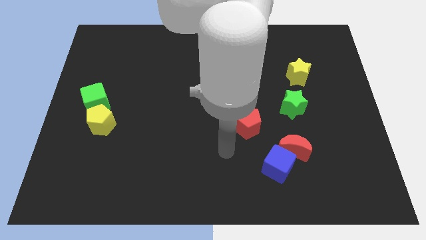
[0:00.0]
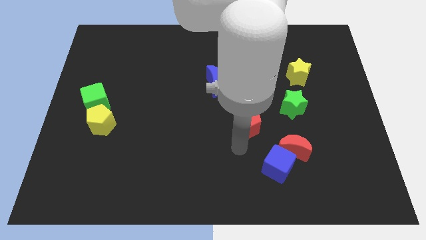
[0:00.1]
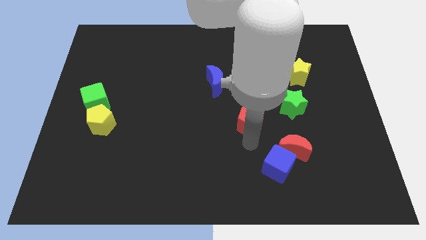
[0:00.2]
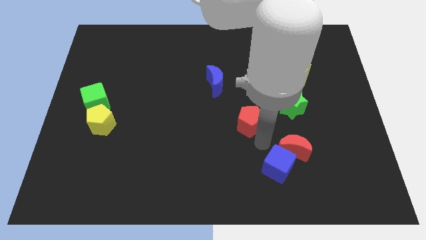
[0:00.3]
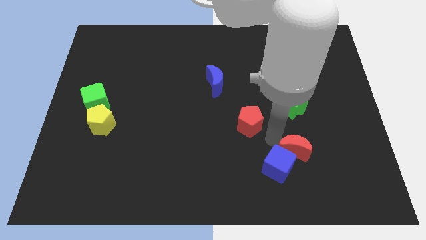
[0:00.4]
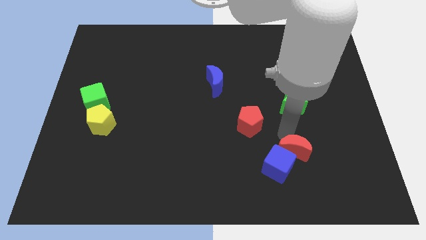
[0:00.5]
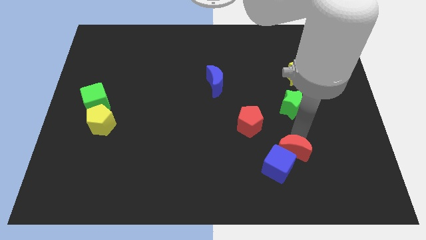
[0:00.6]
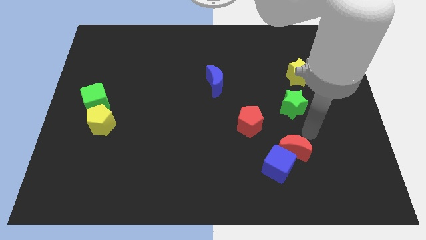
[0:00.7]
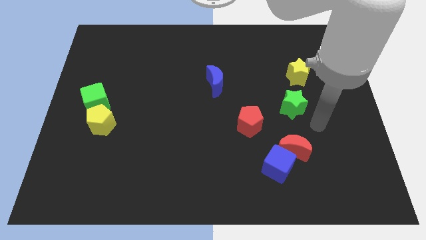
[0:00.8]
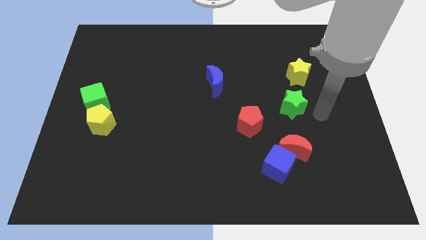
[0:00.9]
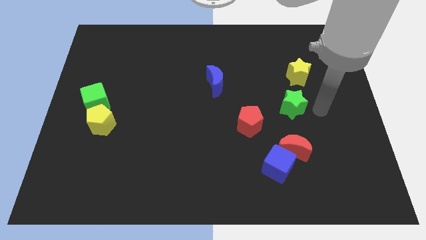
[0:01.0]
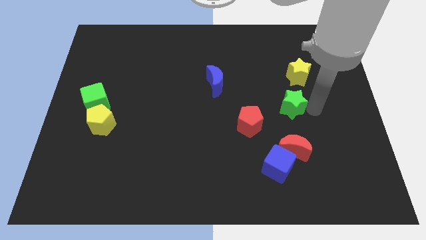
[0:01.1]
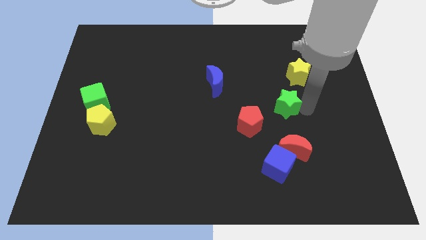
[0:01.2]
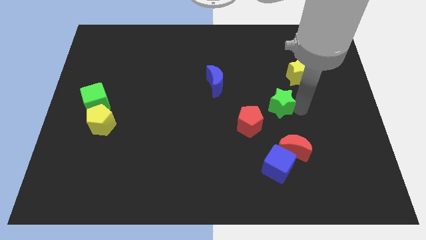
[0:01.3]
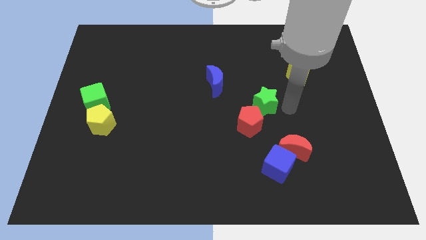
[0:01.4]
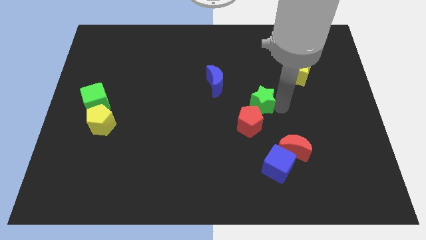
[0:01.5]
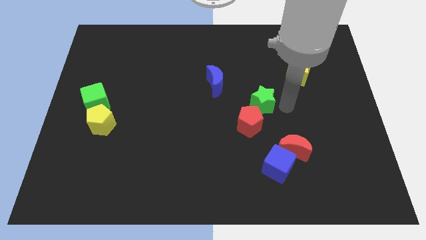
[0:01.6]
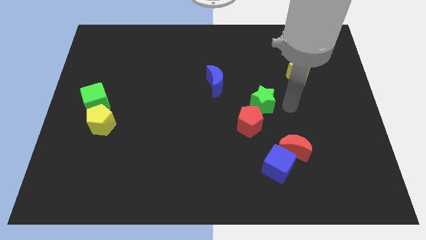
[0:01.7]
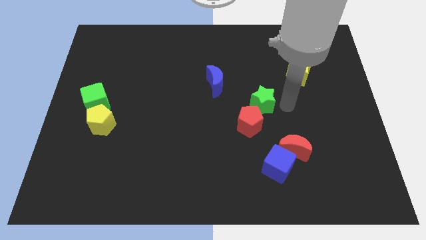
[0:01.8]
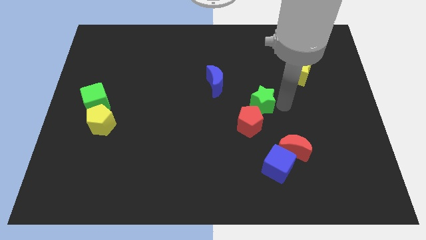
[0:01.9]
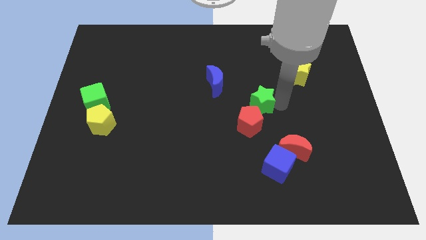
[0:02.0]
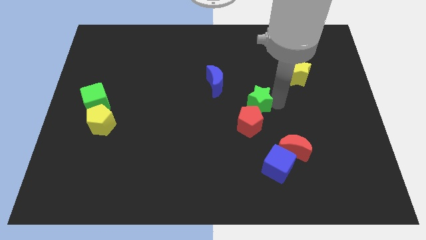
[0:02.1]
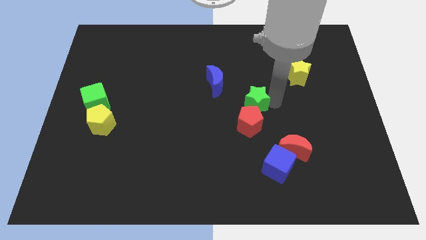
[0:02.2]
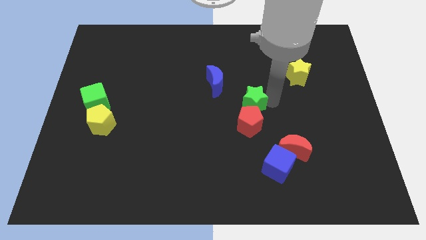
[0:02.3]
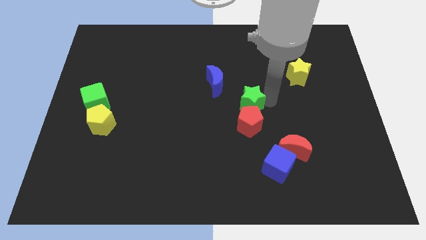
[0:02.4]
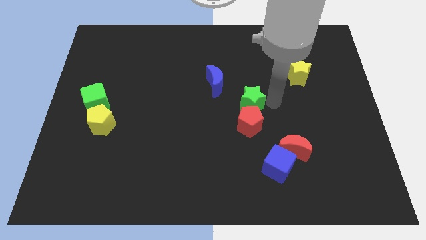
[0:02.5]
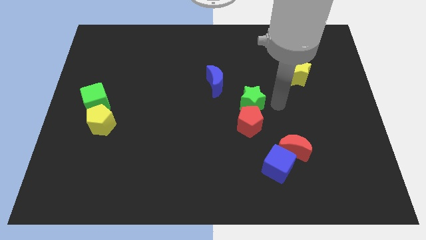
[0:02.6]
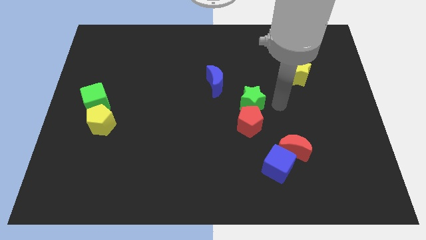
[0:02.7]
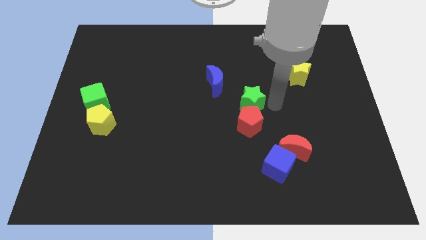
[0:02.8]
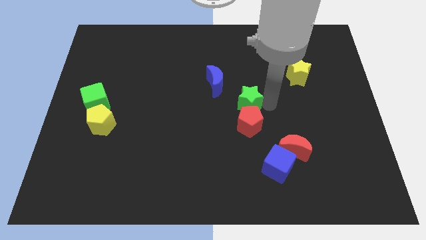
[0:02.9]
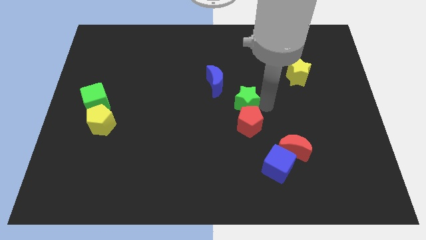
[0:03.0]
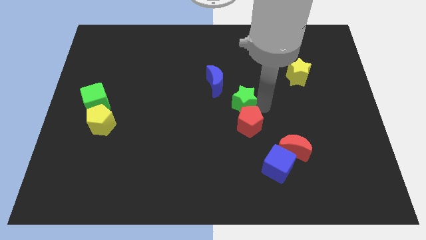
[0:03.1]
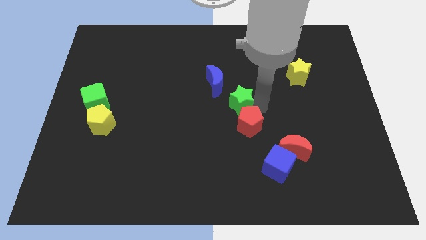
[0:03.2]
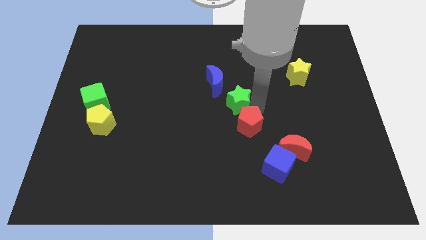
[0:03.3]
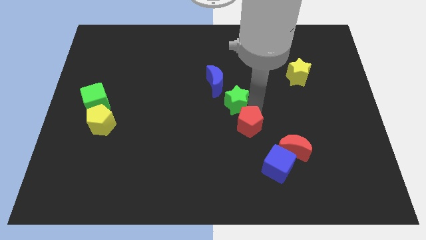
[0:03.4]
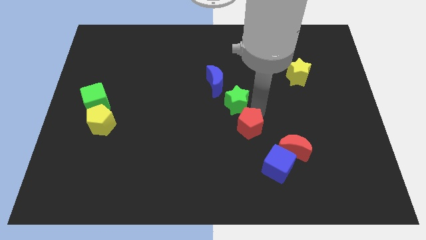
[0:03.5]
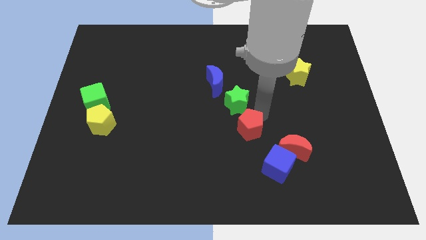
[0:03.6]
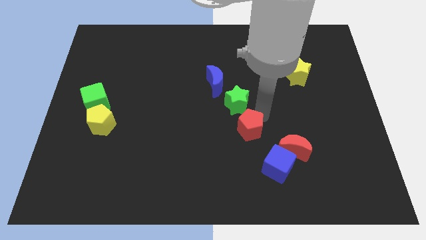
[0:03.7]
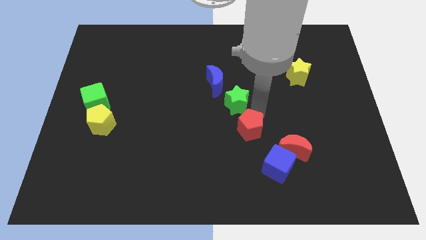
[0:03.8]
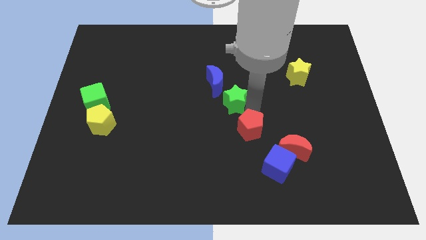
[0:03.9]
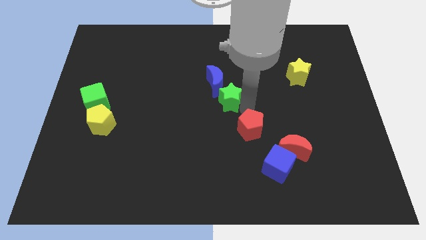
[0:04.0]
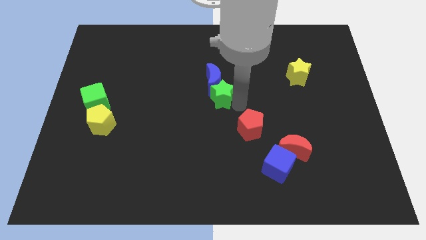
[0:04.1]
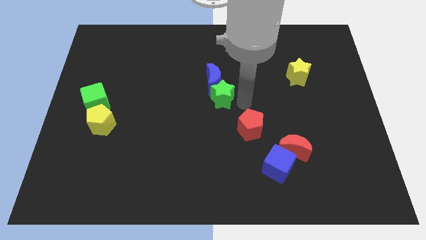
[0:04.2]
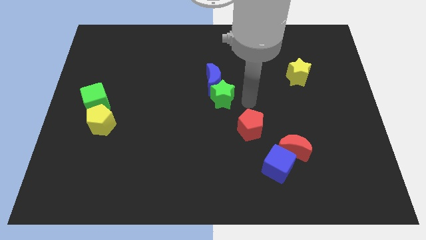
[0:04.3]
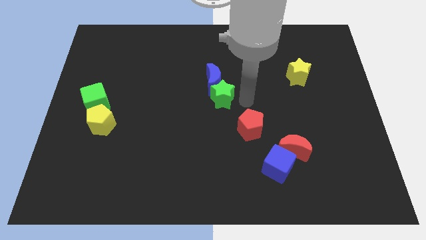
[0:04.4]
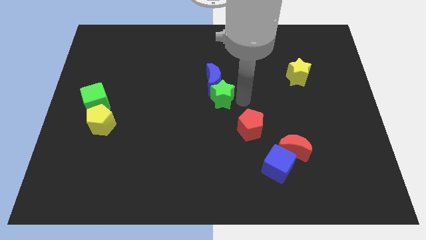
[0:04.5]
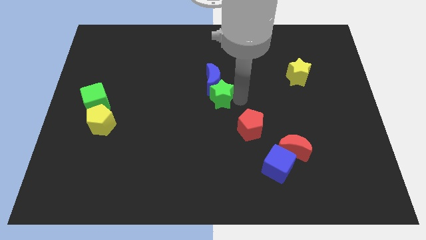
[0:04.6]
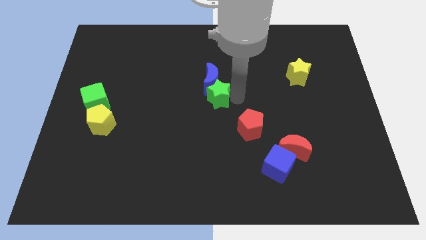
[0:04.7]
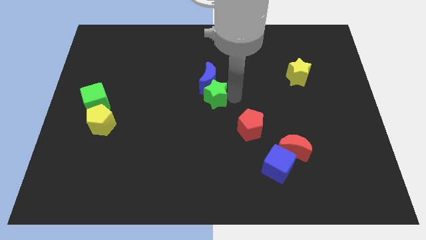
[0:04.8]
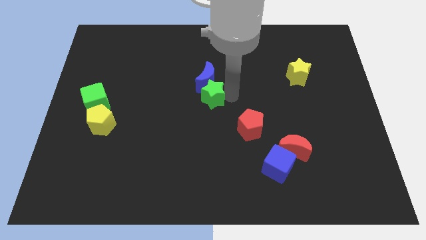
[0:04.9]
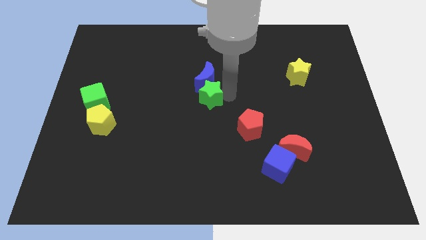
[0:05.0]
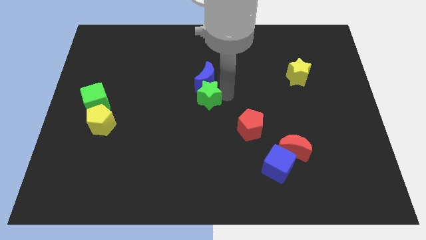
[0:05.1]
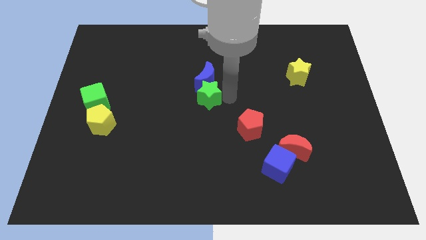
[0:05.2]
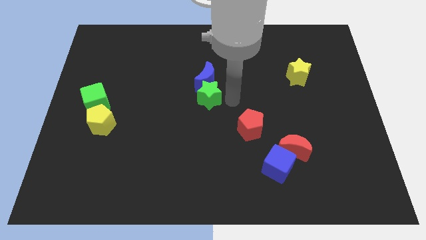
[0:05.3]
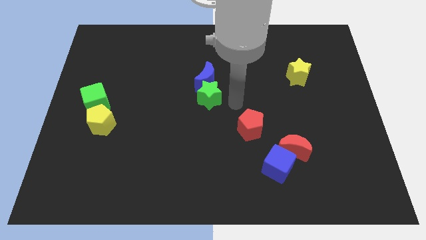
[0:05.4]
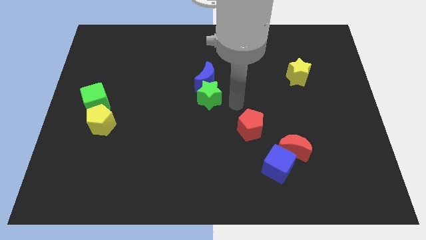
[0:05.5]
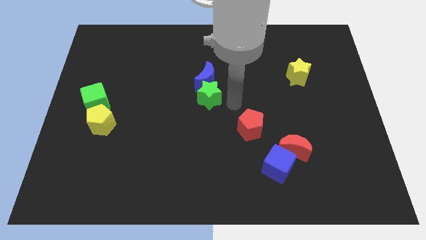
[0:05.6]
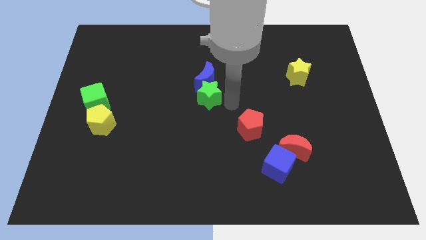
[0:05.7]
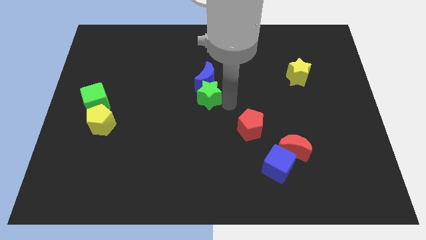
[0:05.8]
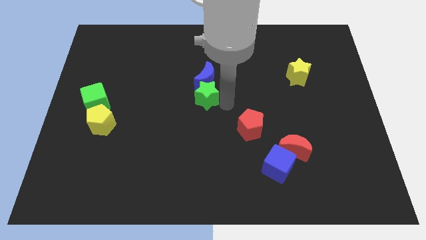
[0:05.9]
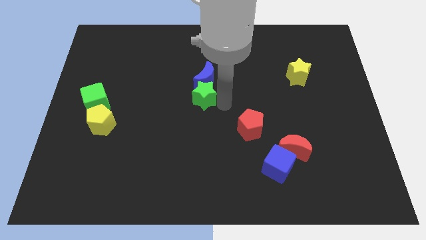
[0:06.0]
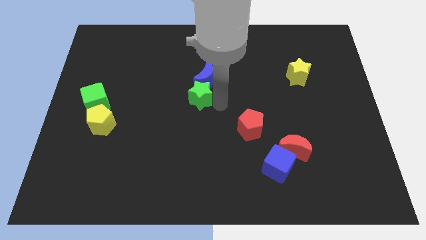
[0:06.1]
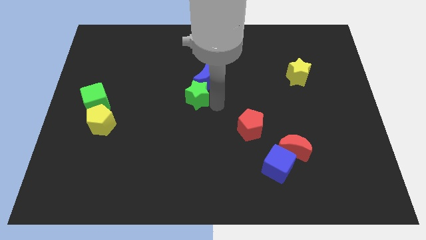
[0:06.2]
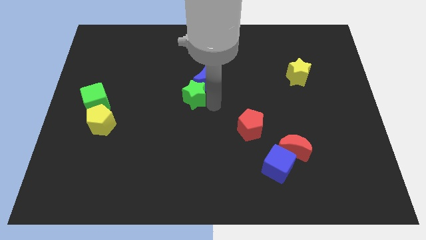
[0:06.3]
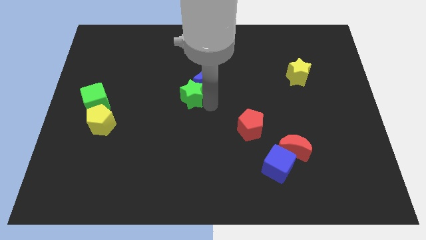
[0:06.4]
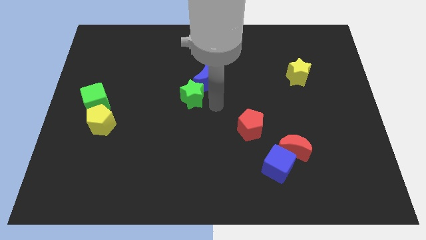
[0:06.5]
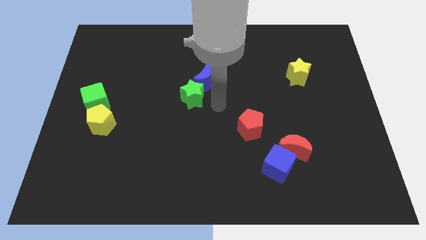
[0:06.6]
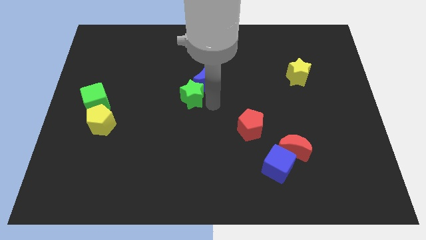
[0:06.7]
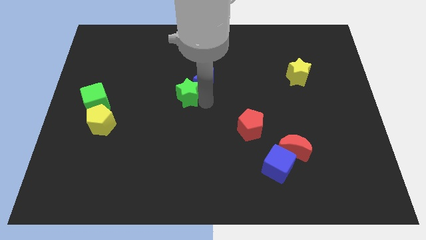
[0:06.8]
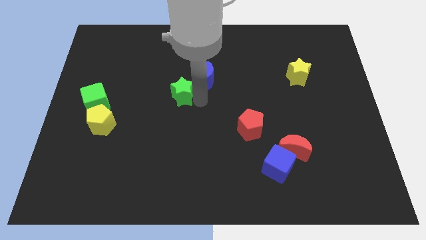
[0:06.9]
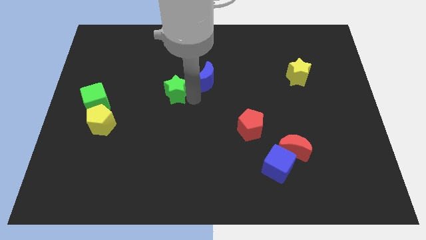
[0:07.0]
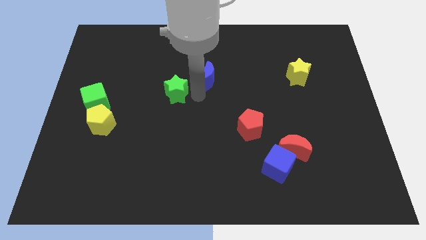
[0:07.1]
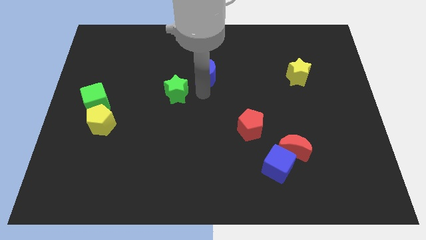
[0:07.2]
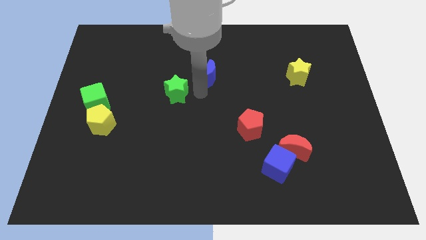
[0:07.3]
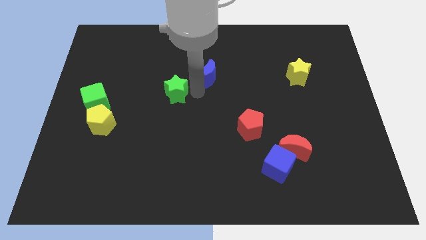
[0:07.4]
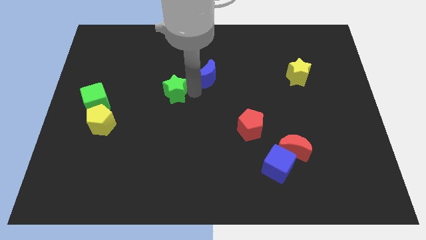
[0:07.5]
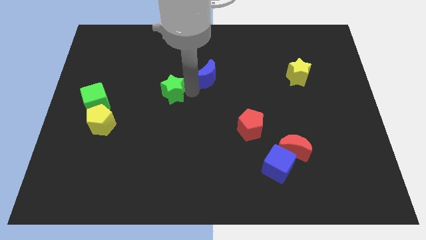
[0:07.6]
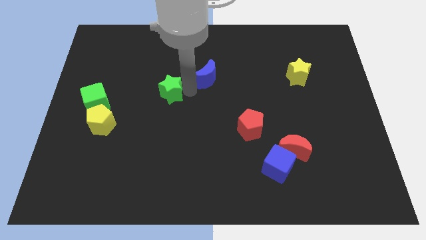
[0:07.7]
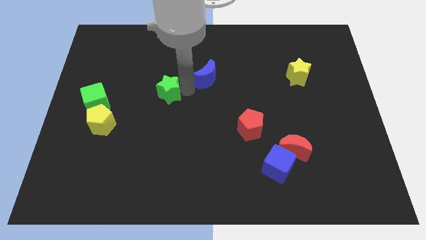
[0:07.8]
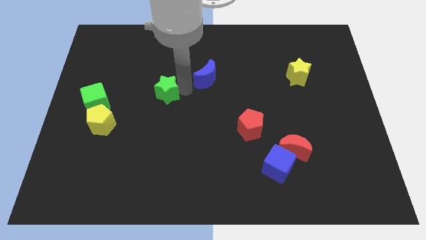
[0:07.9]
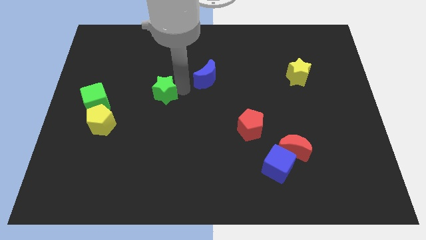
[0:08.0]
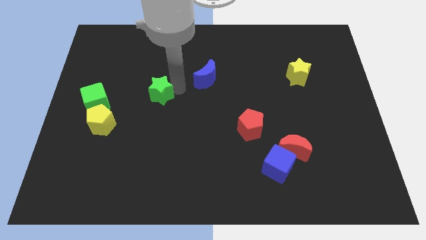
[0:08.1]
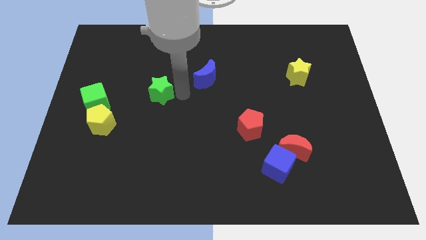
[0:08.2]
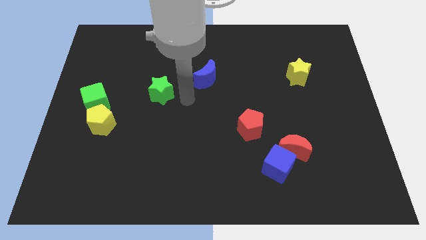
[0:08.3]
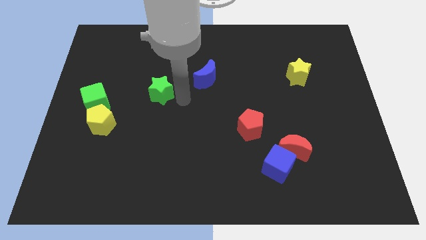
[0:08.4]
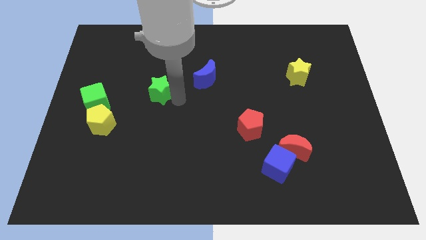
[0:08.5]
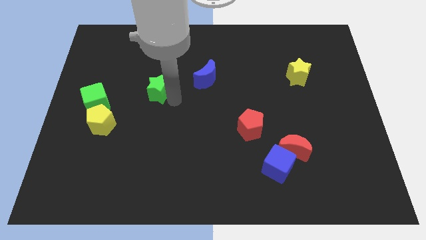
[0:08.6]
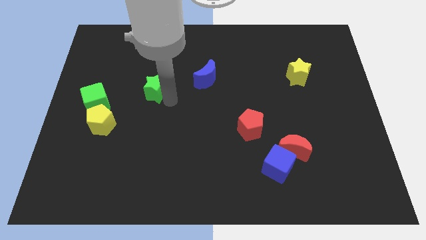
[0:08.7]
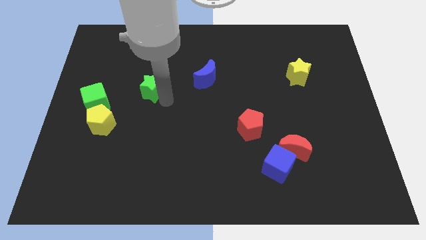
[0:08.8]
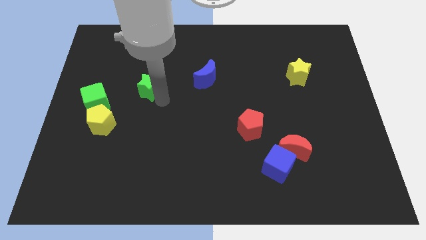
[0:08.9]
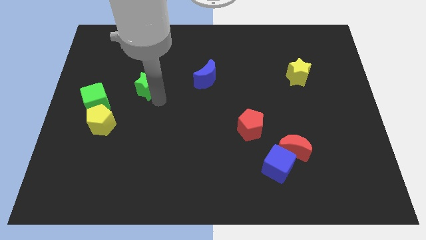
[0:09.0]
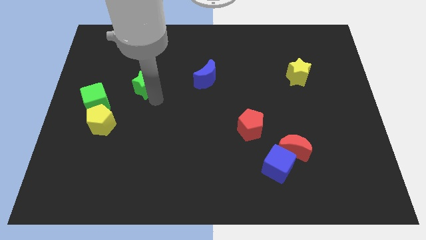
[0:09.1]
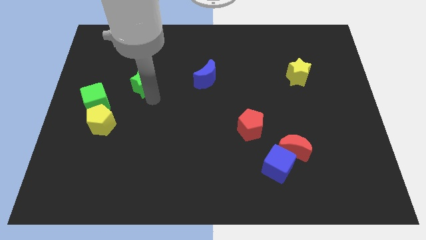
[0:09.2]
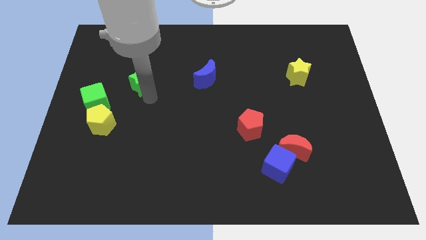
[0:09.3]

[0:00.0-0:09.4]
move the green star diagonally up and to the right of the green cube
